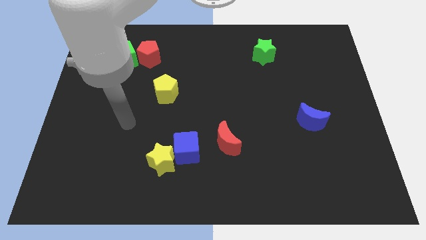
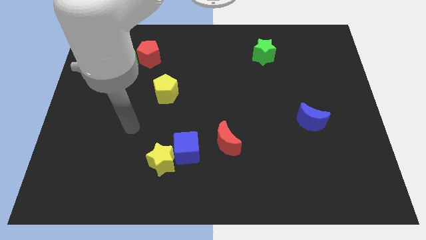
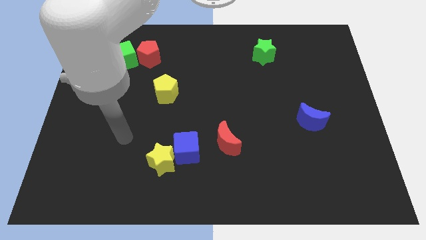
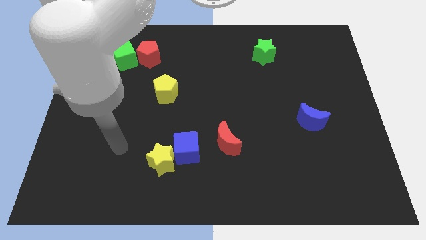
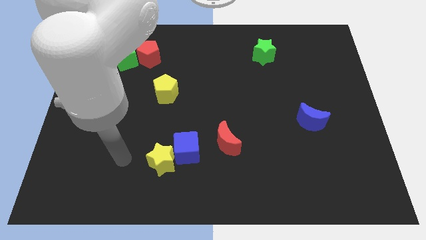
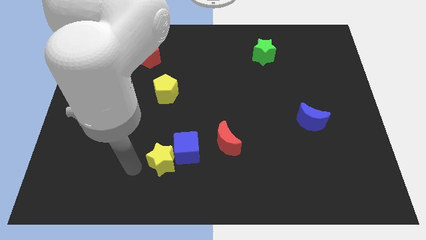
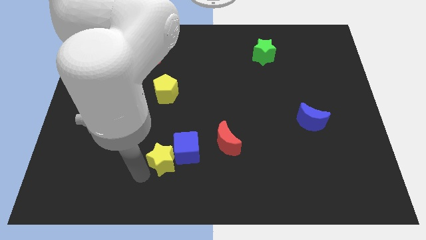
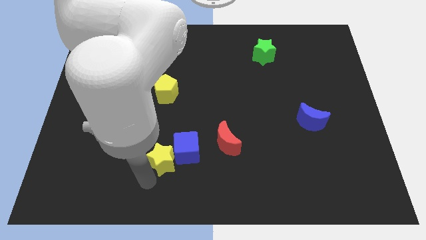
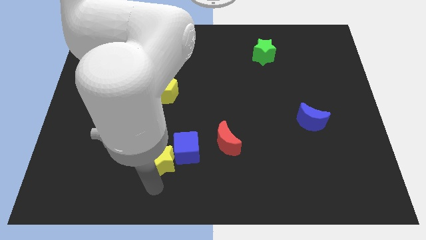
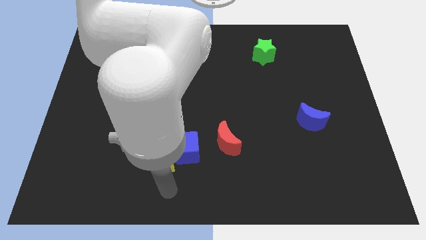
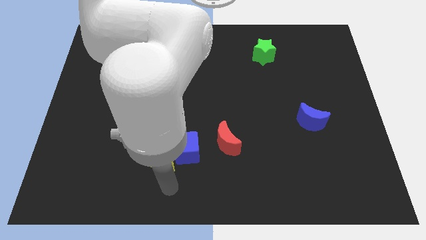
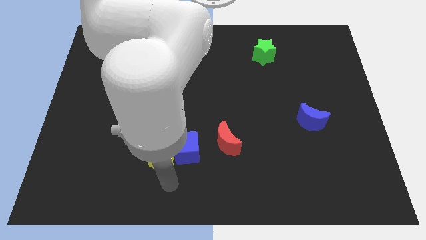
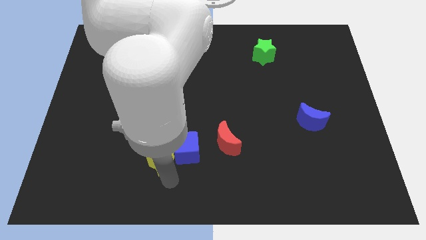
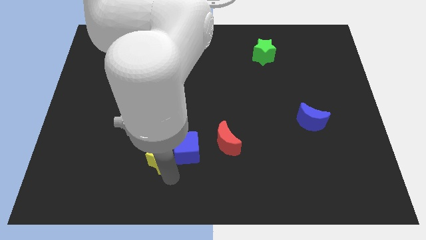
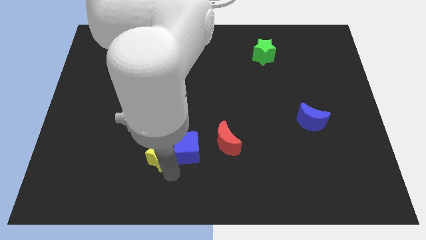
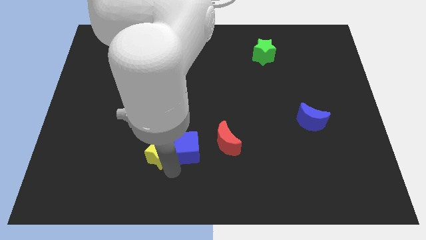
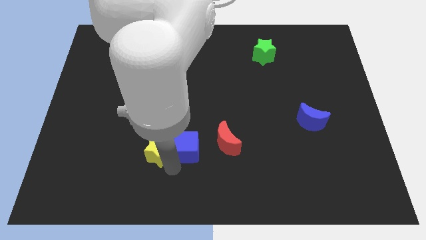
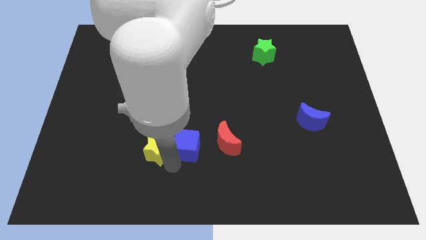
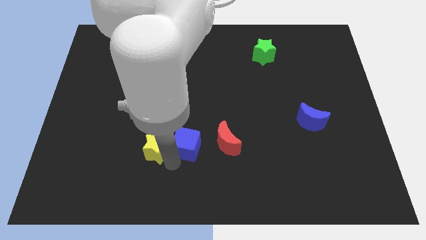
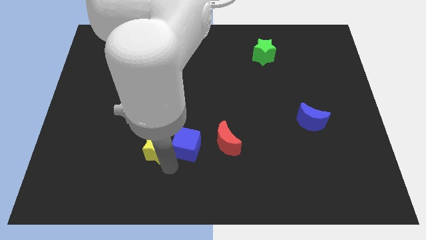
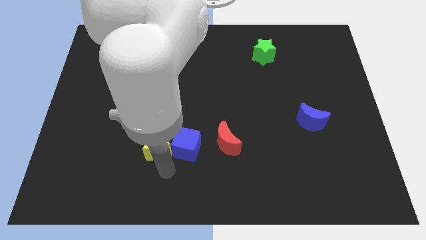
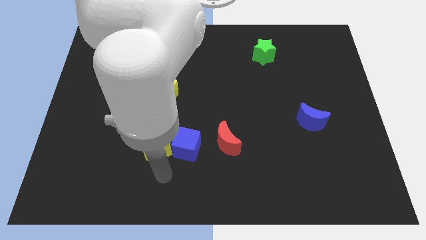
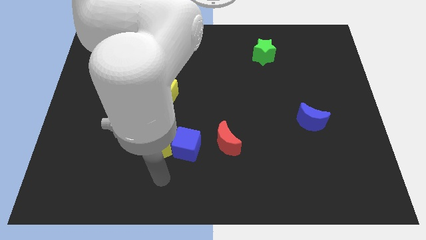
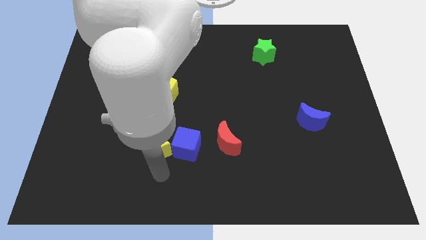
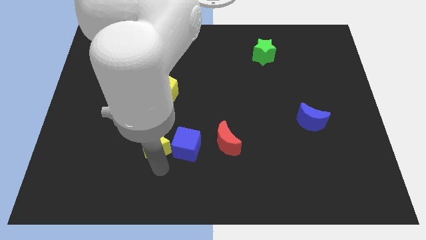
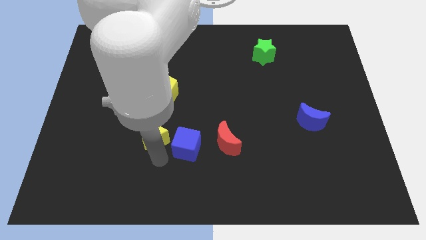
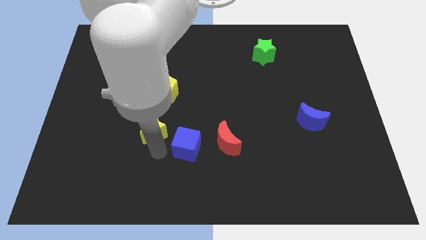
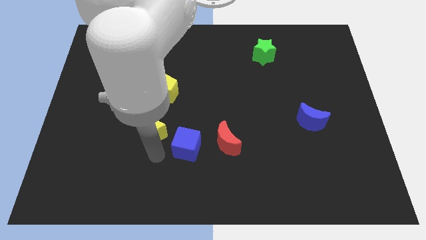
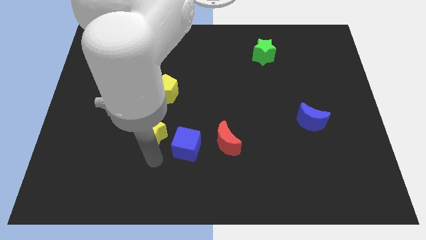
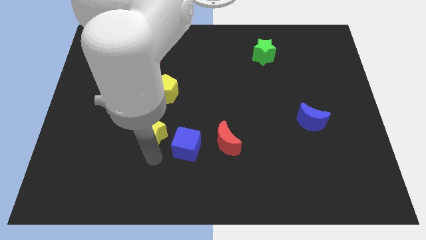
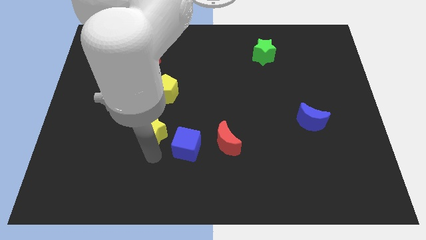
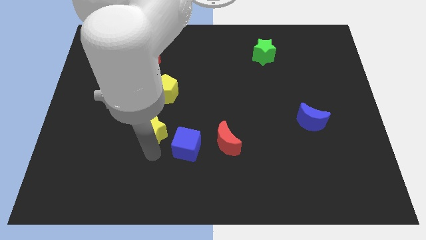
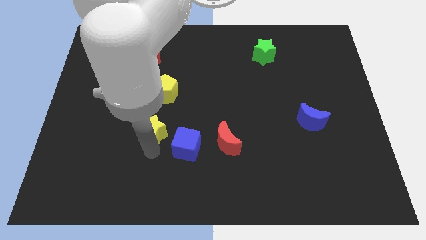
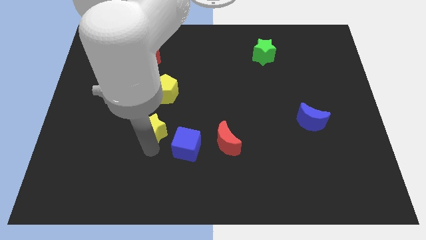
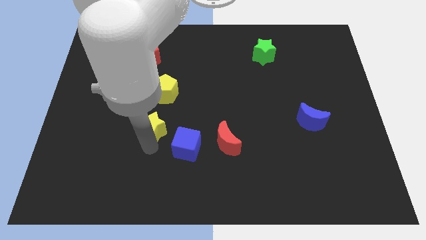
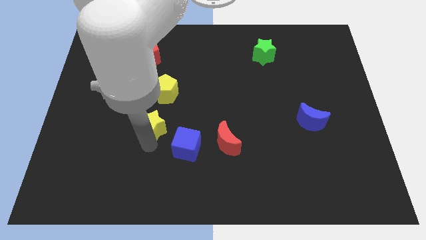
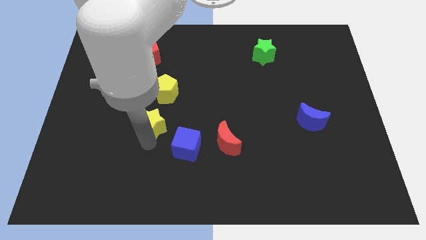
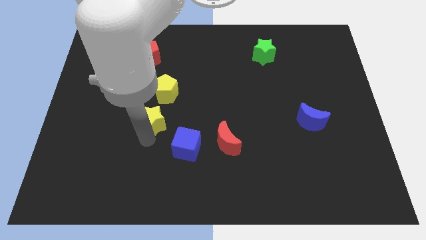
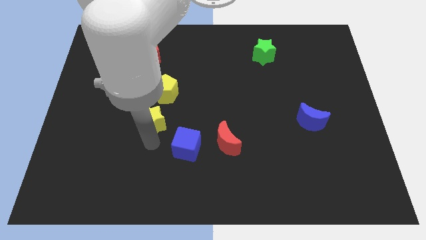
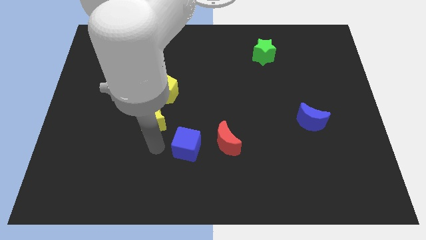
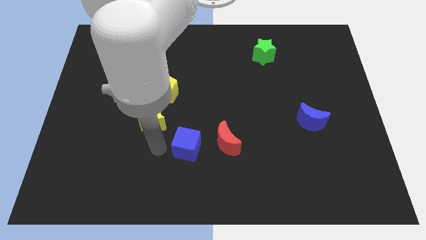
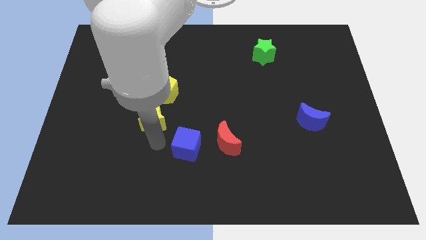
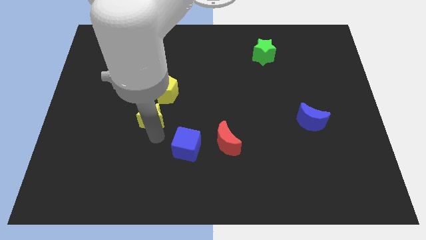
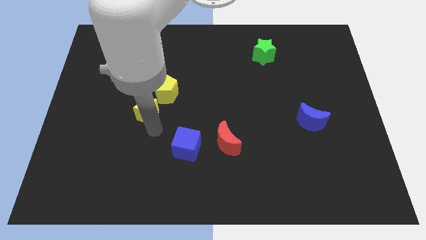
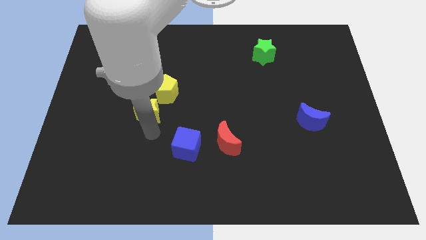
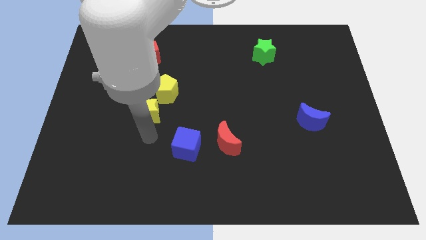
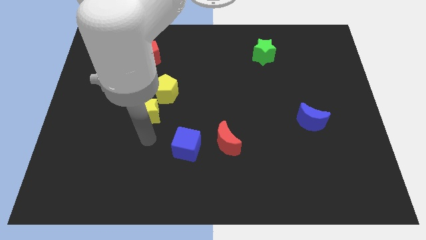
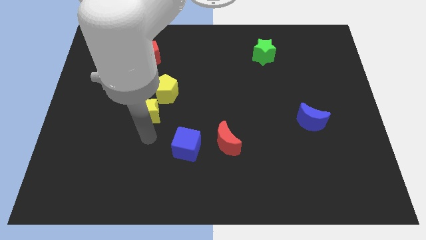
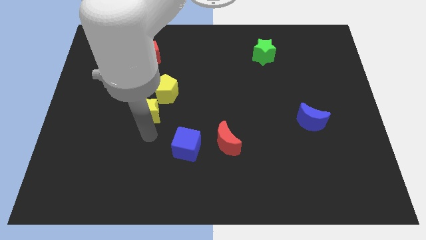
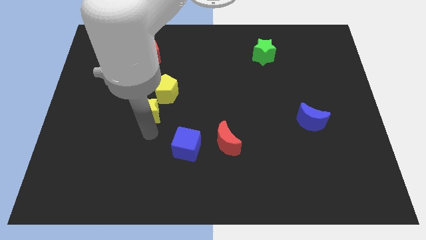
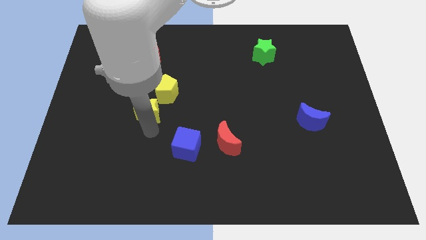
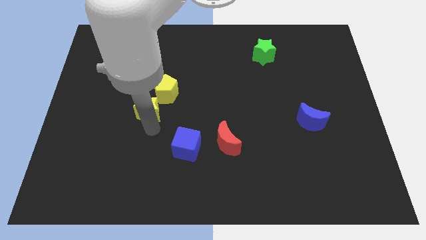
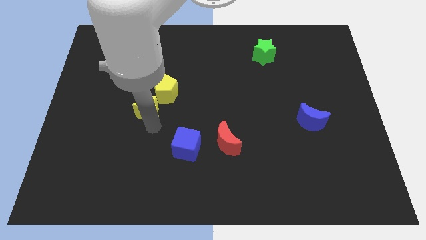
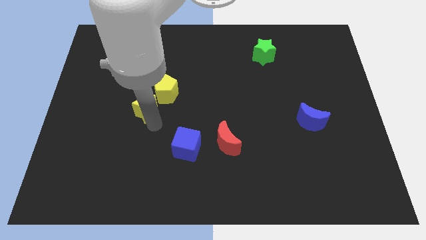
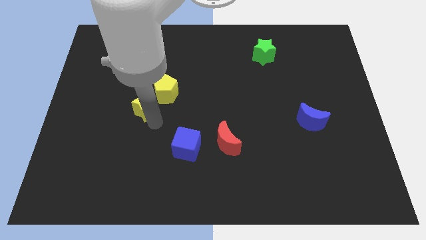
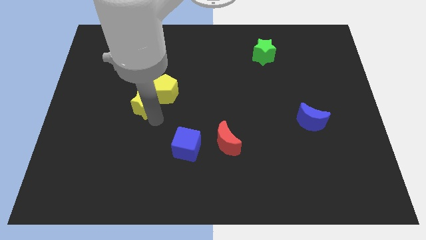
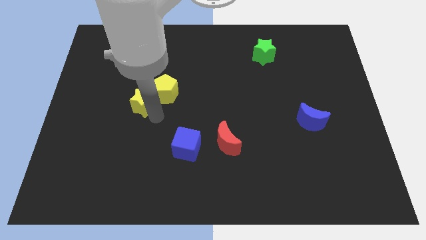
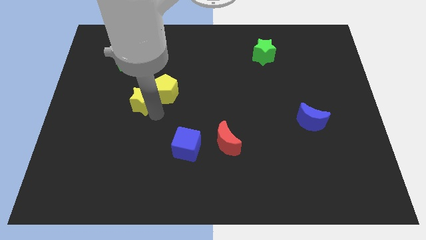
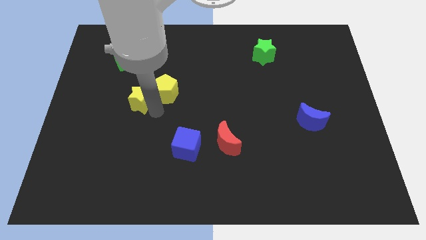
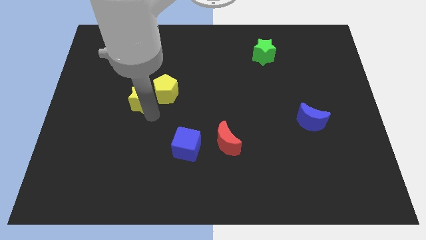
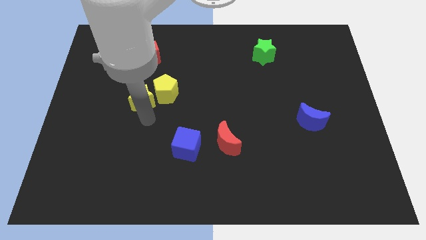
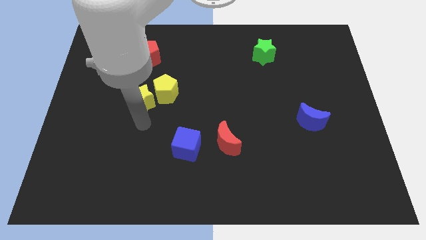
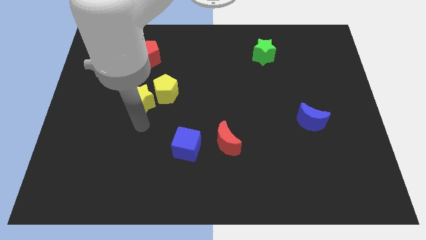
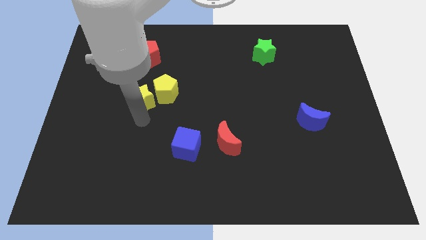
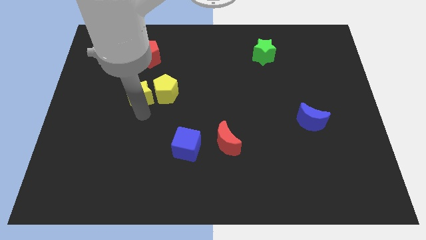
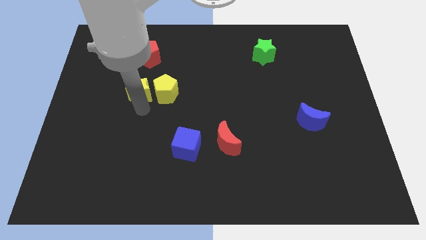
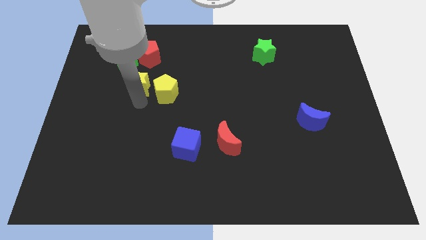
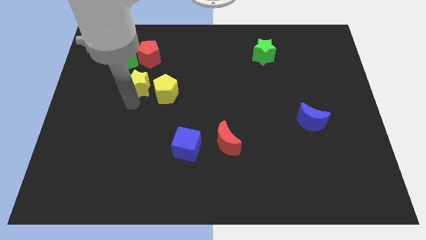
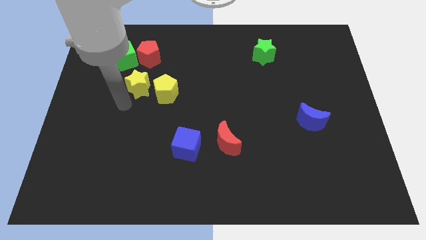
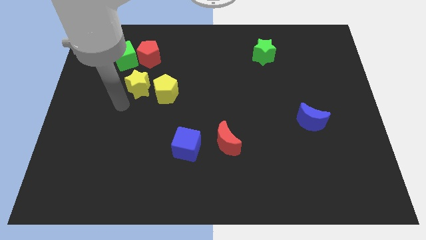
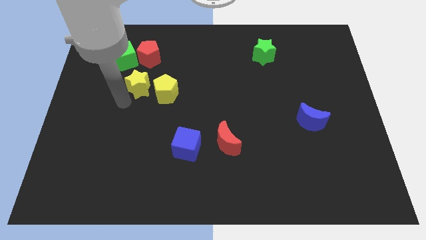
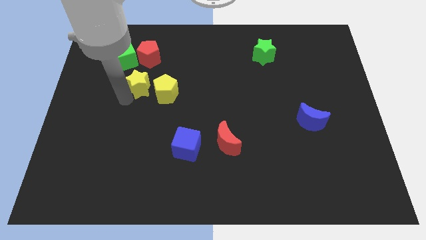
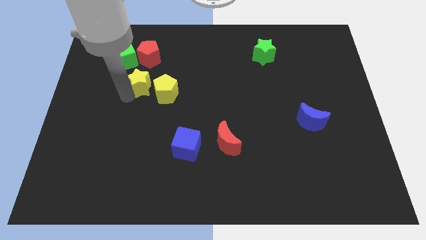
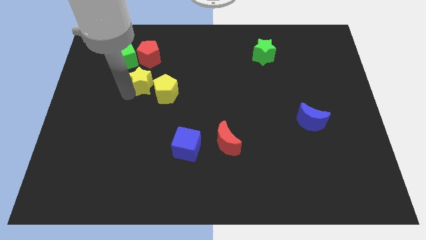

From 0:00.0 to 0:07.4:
move the yellow star upwards

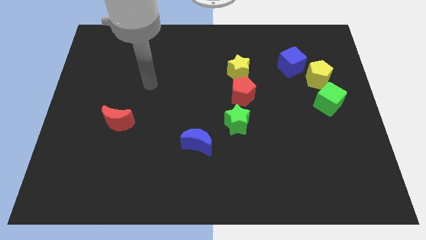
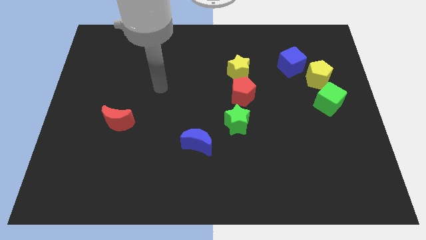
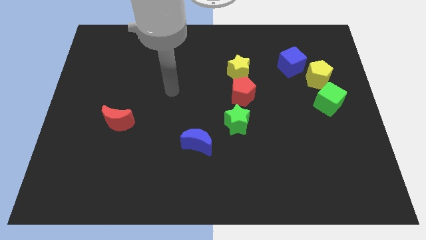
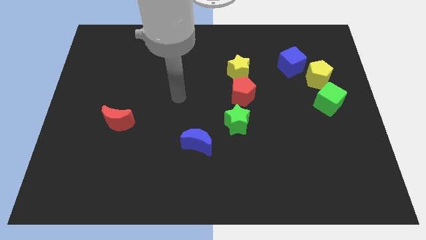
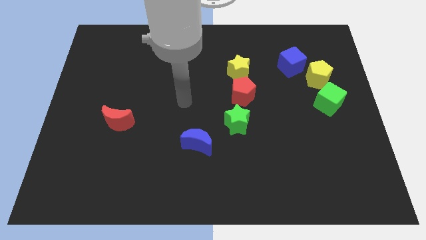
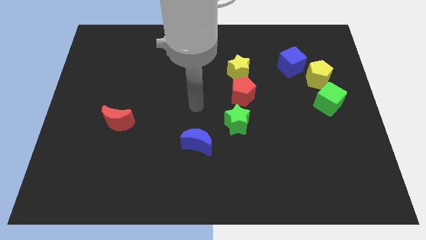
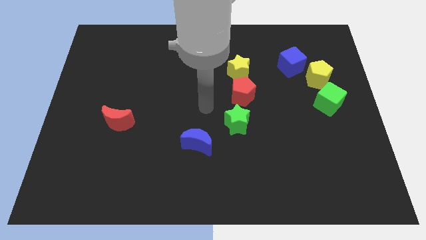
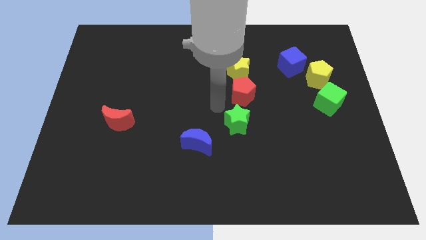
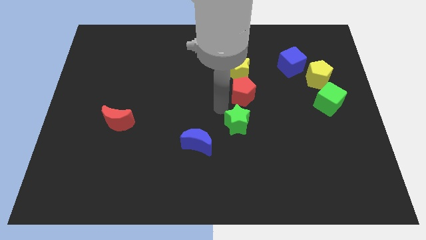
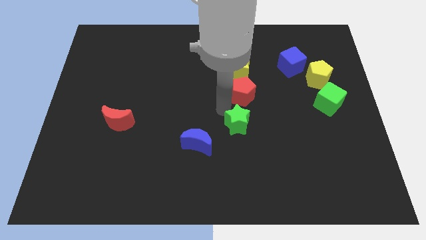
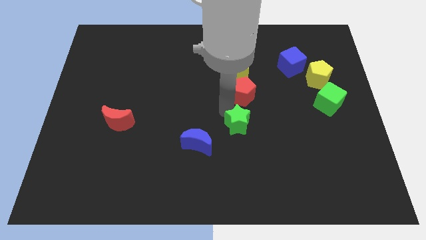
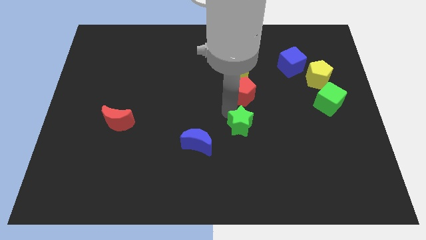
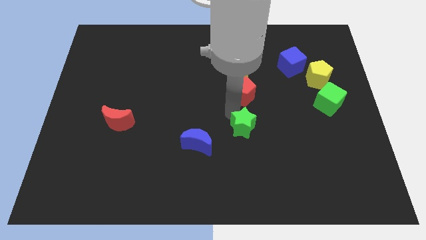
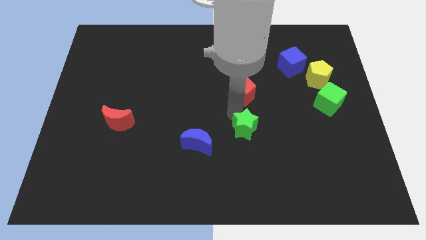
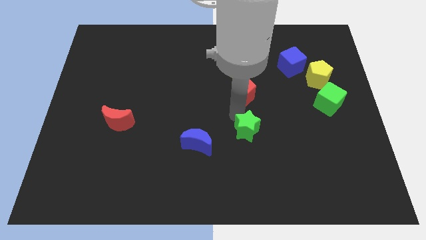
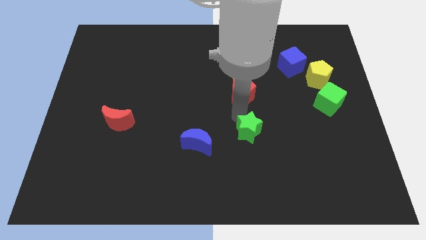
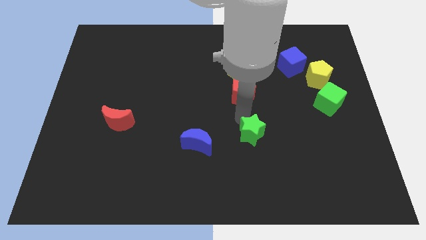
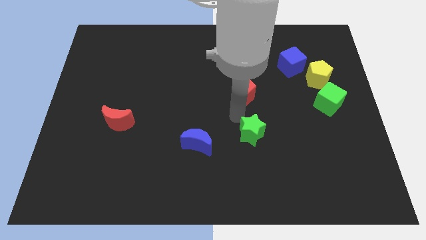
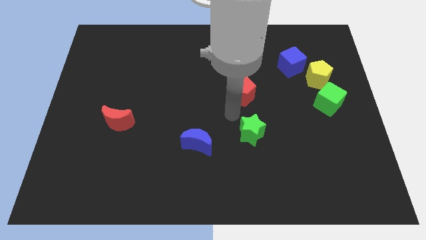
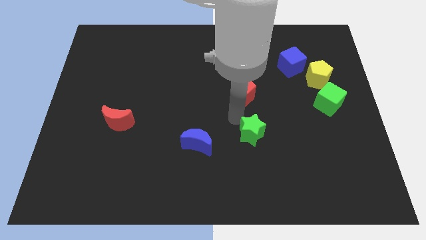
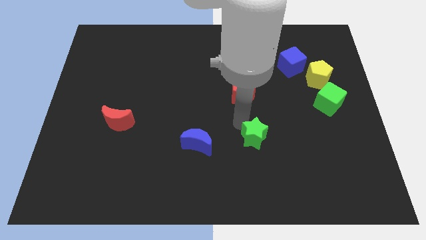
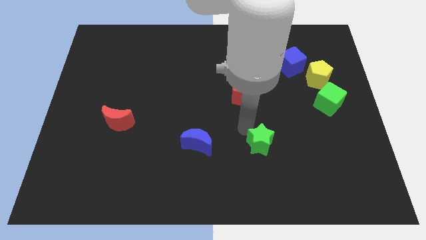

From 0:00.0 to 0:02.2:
push the green star somewhat downwards and then right
